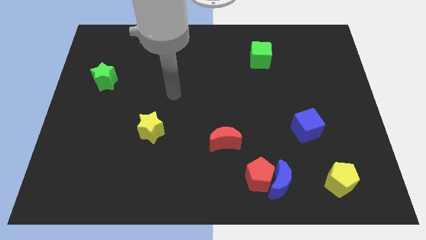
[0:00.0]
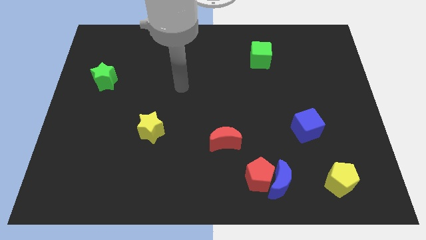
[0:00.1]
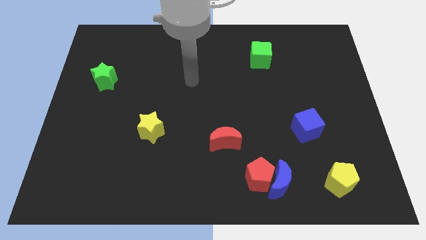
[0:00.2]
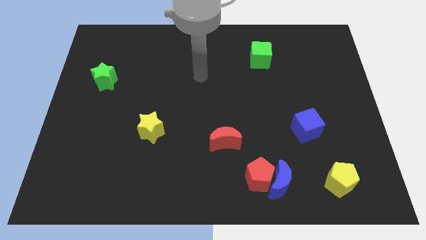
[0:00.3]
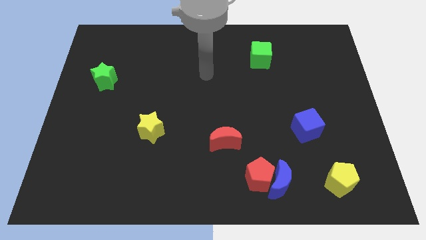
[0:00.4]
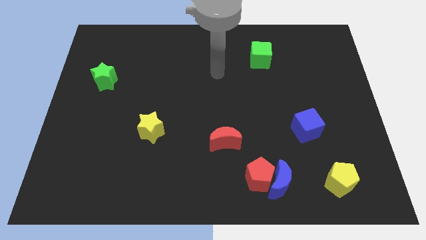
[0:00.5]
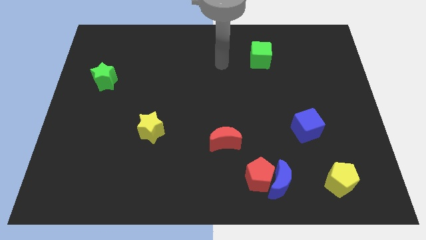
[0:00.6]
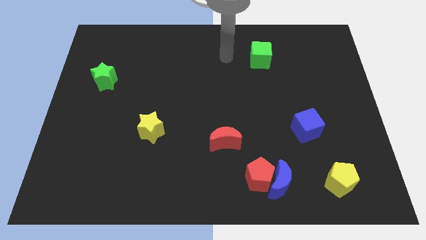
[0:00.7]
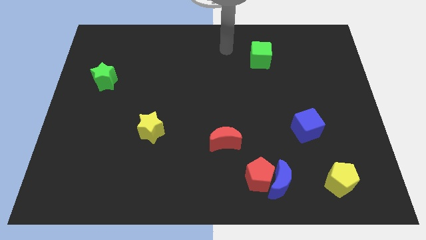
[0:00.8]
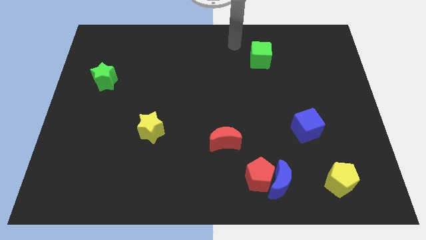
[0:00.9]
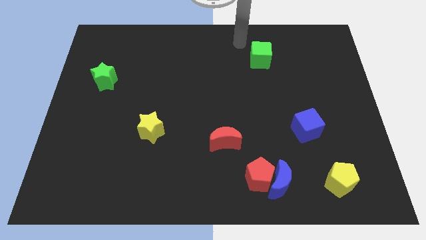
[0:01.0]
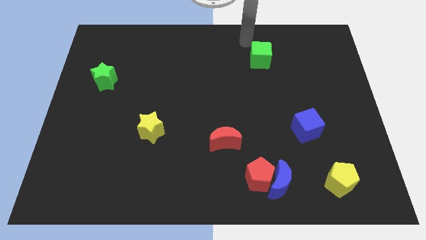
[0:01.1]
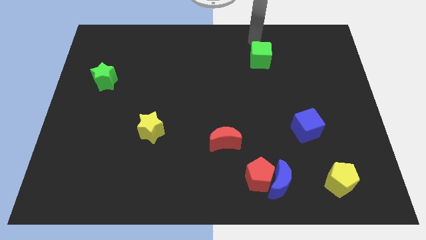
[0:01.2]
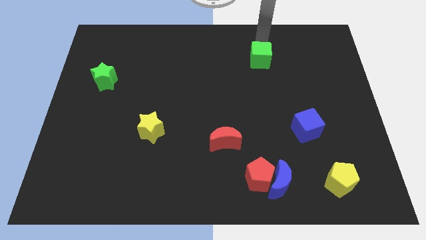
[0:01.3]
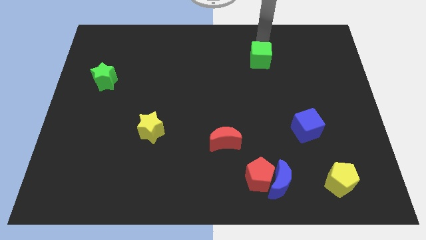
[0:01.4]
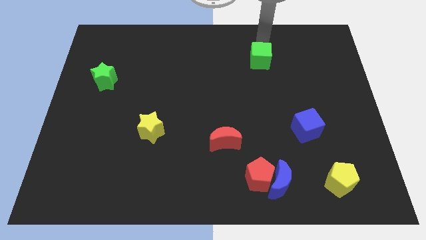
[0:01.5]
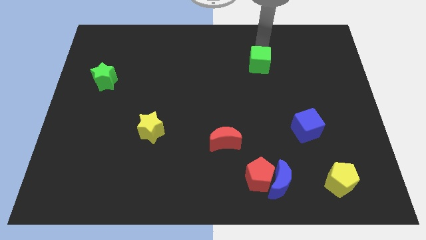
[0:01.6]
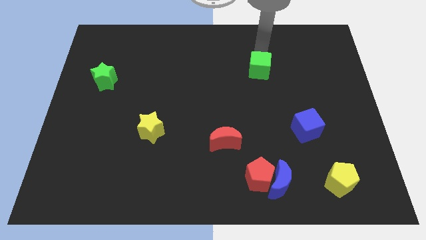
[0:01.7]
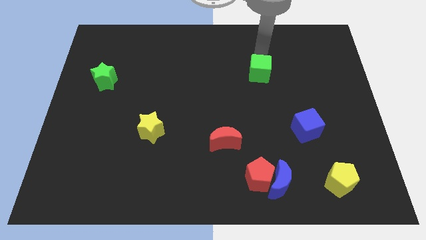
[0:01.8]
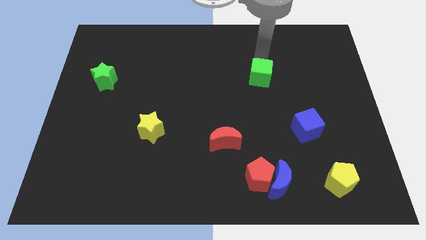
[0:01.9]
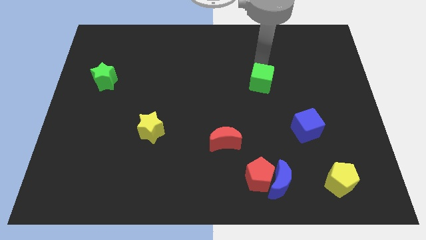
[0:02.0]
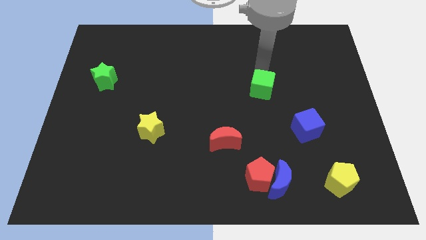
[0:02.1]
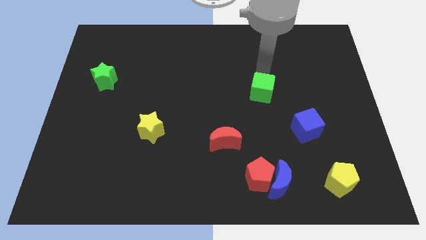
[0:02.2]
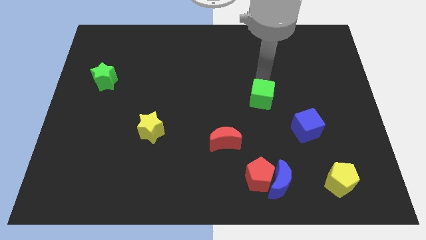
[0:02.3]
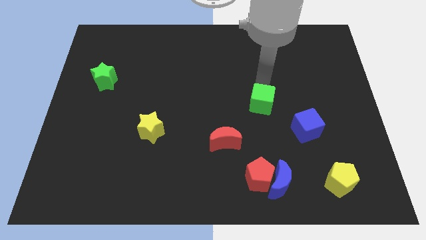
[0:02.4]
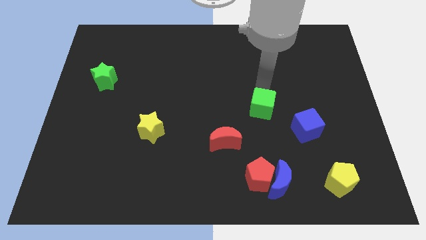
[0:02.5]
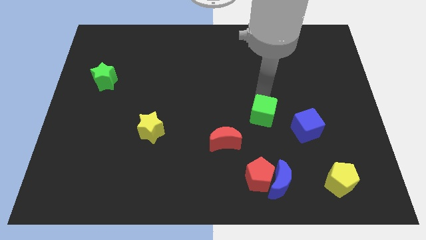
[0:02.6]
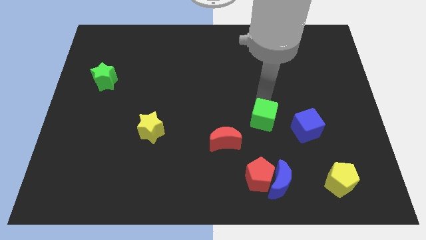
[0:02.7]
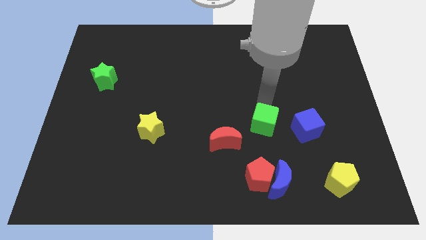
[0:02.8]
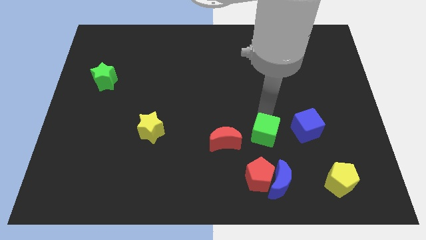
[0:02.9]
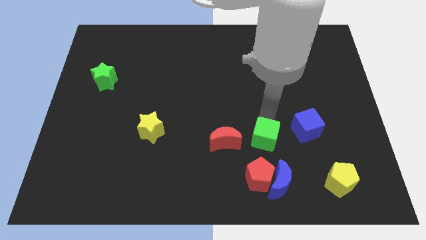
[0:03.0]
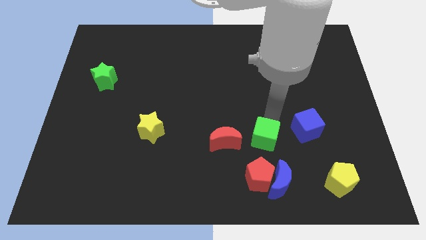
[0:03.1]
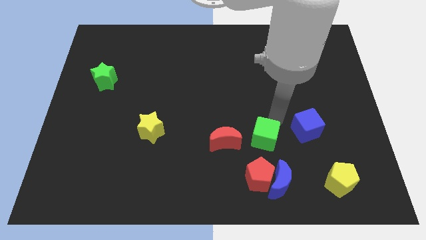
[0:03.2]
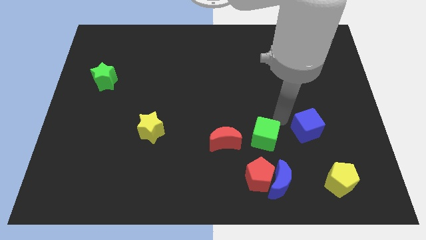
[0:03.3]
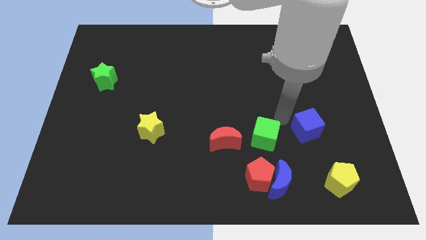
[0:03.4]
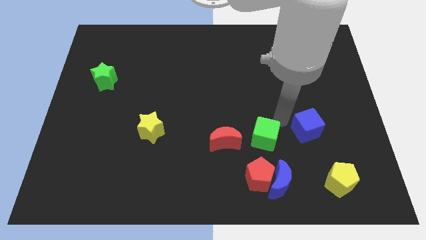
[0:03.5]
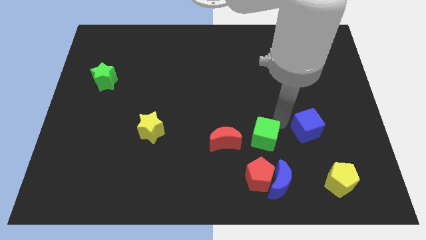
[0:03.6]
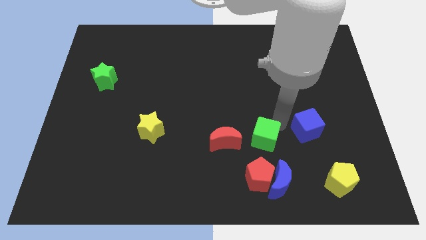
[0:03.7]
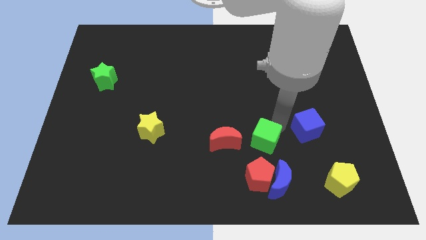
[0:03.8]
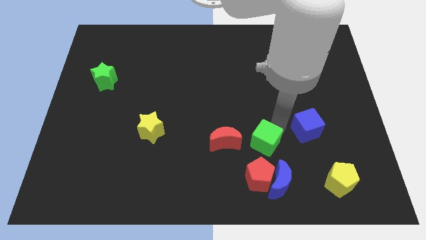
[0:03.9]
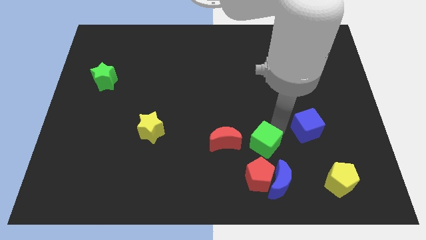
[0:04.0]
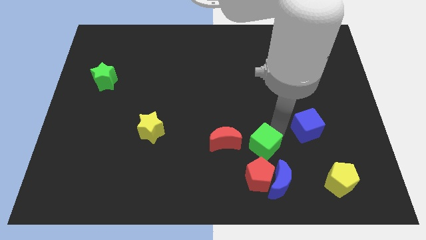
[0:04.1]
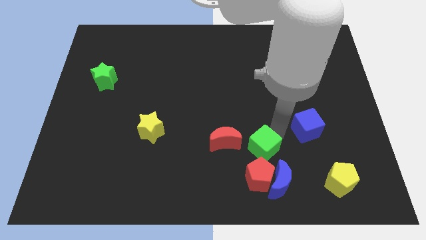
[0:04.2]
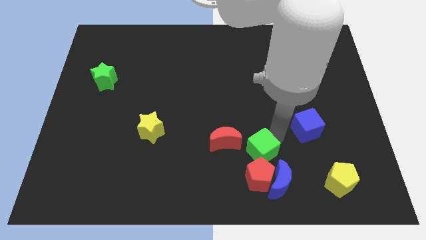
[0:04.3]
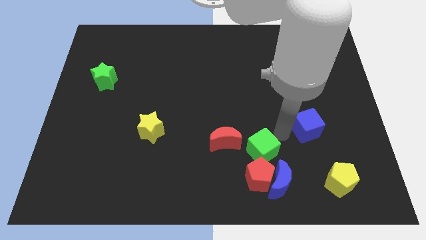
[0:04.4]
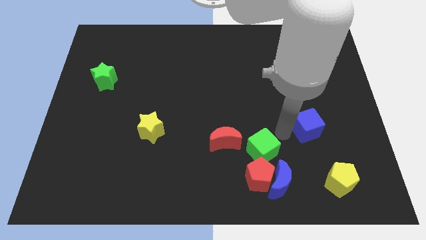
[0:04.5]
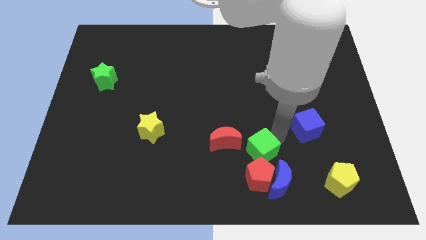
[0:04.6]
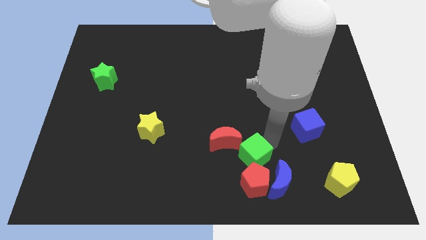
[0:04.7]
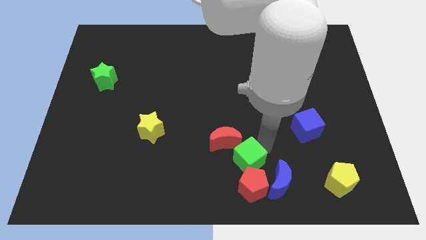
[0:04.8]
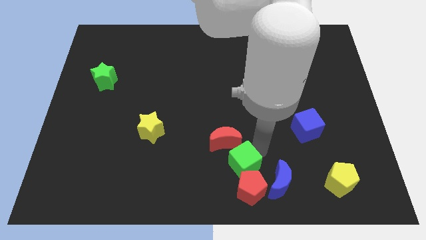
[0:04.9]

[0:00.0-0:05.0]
slide the green cube to the bottom

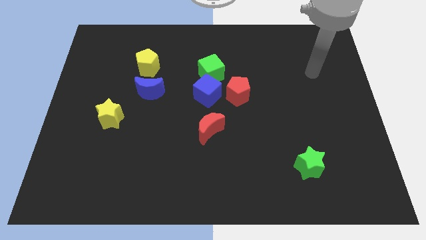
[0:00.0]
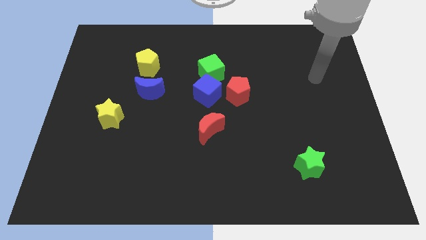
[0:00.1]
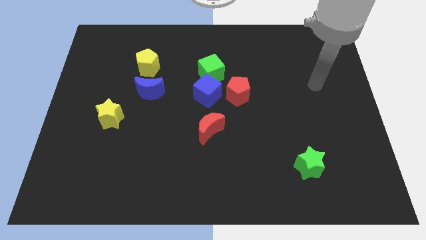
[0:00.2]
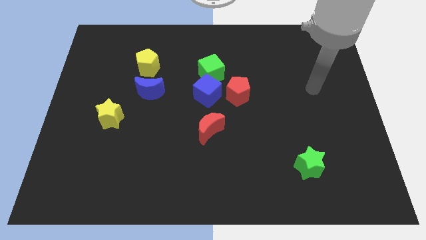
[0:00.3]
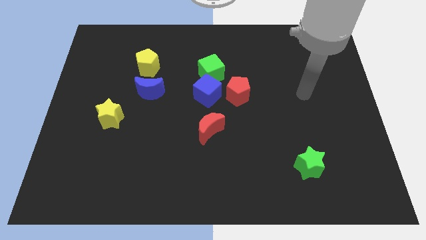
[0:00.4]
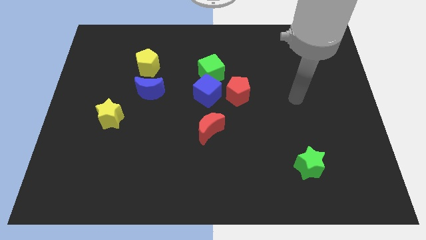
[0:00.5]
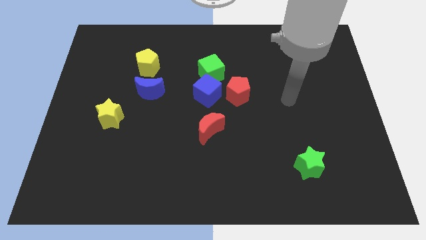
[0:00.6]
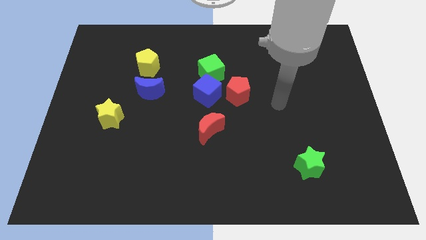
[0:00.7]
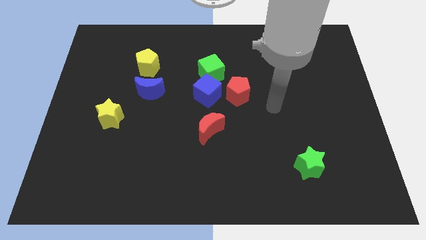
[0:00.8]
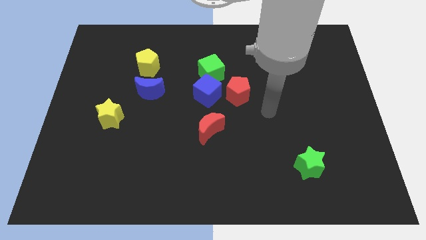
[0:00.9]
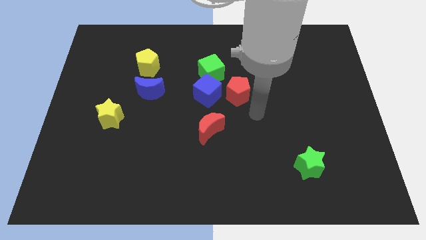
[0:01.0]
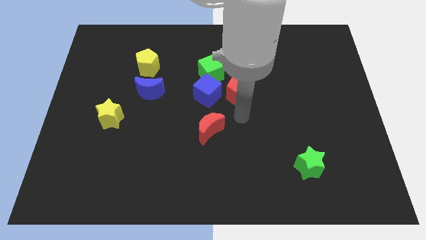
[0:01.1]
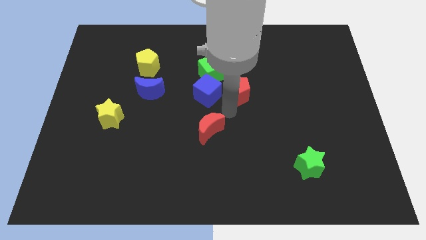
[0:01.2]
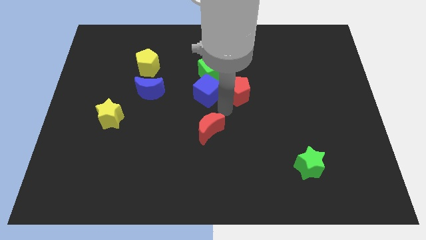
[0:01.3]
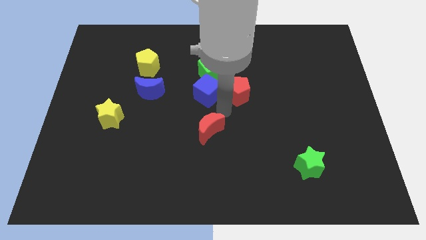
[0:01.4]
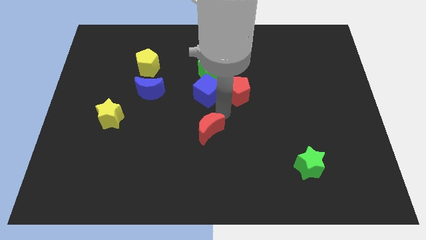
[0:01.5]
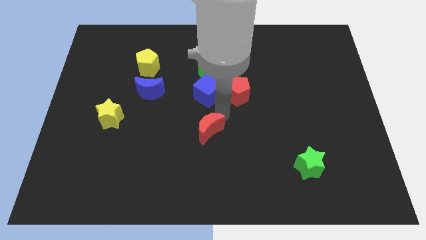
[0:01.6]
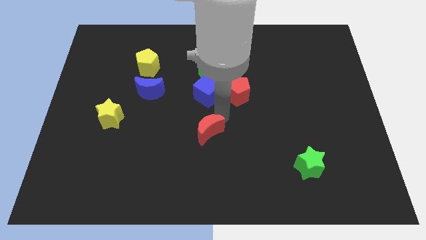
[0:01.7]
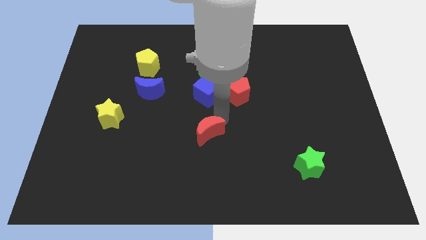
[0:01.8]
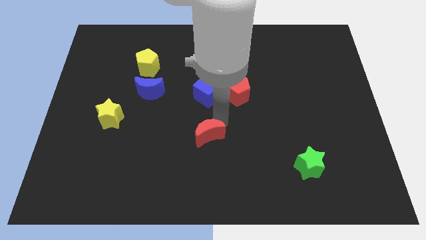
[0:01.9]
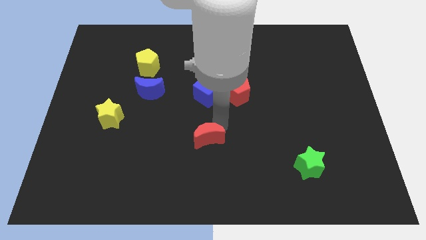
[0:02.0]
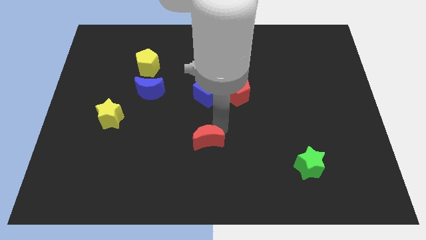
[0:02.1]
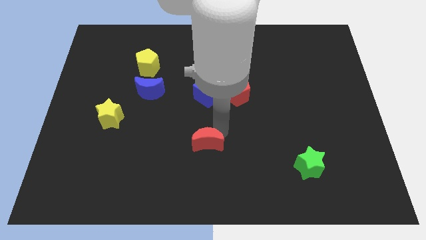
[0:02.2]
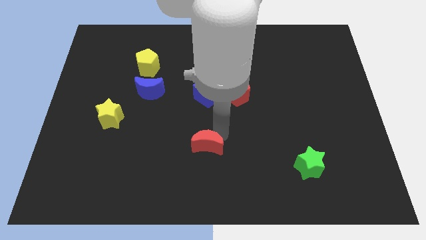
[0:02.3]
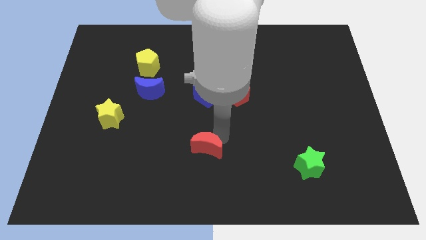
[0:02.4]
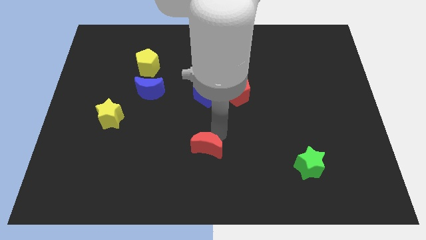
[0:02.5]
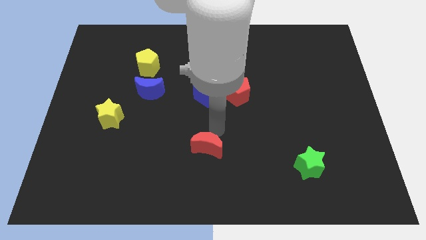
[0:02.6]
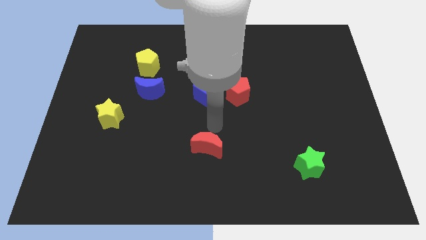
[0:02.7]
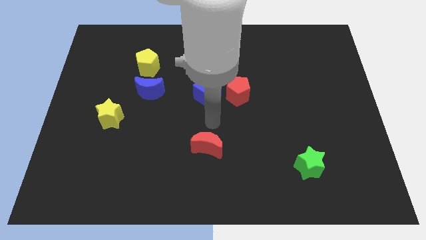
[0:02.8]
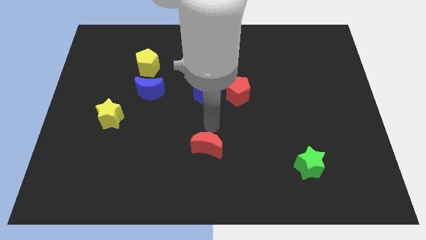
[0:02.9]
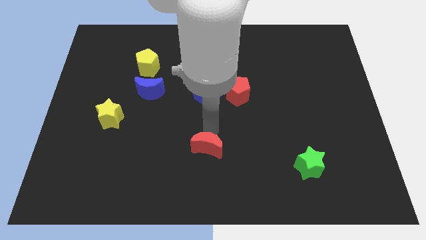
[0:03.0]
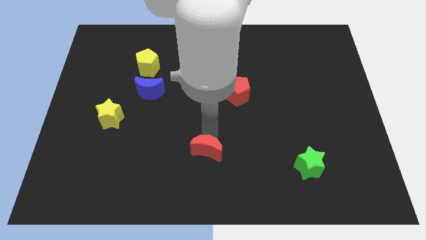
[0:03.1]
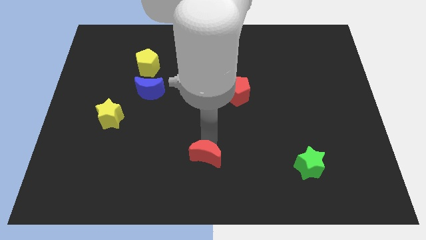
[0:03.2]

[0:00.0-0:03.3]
move the red moon to the bottom
